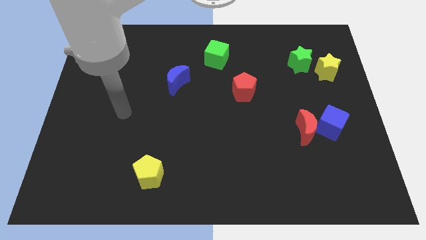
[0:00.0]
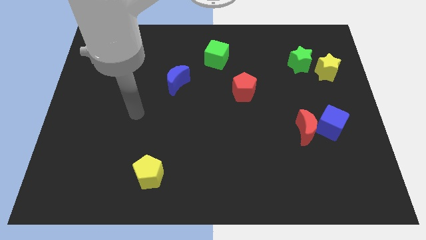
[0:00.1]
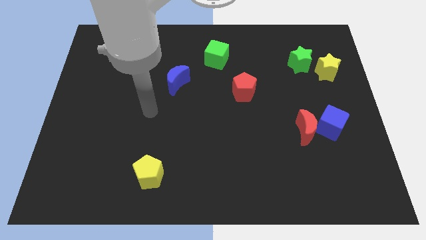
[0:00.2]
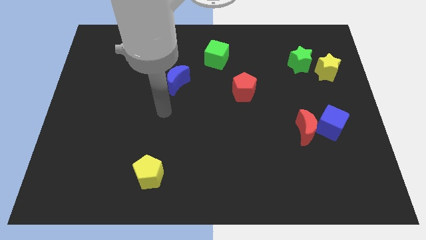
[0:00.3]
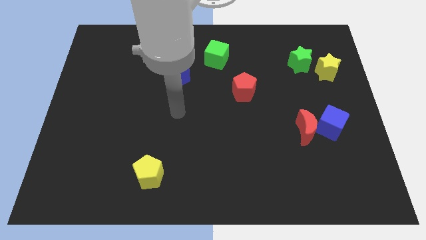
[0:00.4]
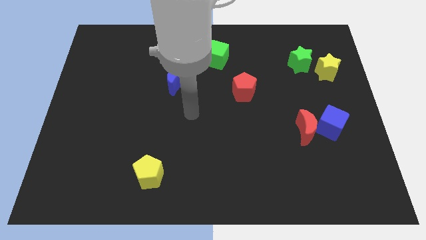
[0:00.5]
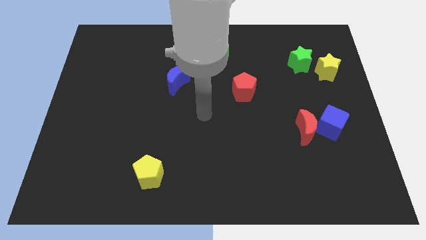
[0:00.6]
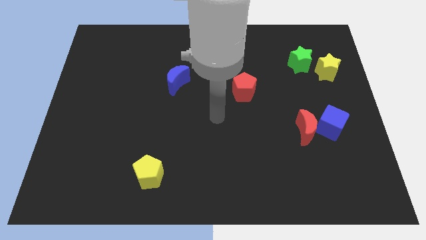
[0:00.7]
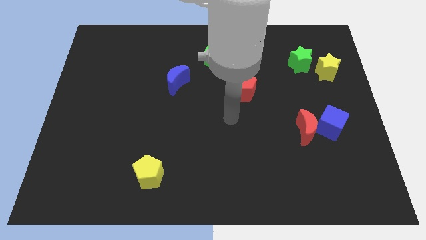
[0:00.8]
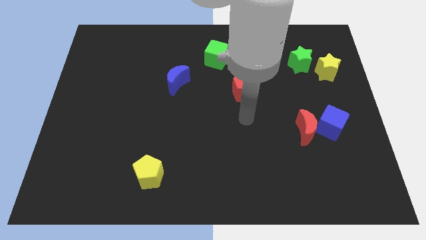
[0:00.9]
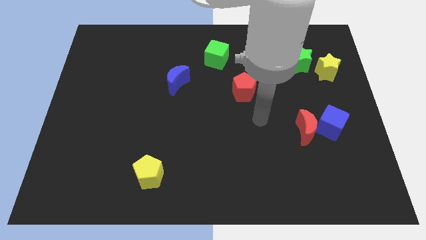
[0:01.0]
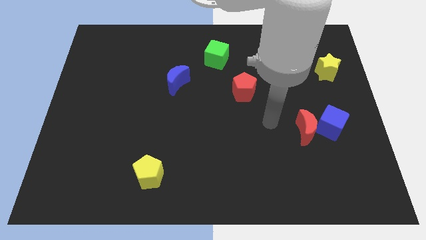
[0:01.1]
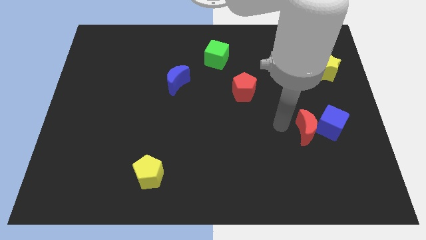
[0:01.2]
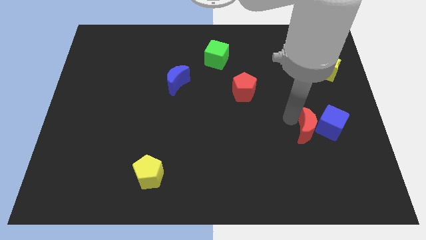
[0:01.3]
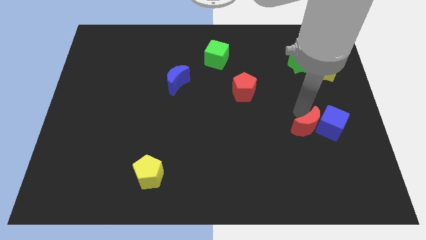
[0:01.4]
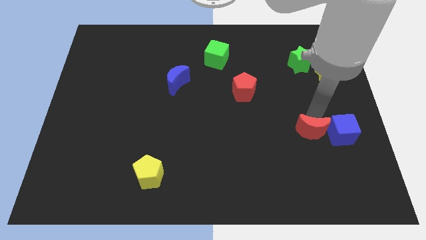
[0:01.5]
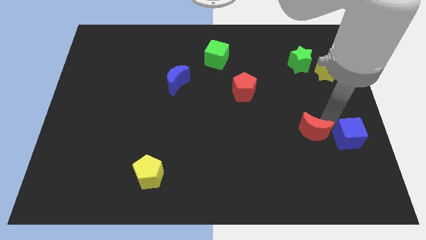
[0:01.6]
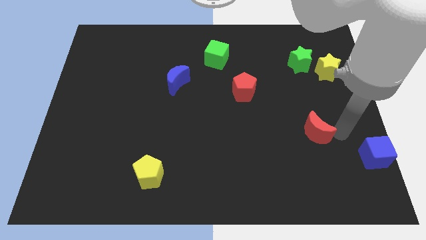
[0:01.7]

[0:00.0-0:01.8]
move the red moon away from the blue cube

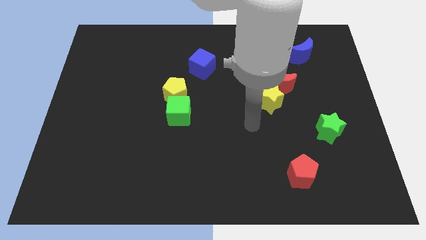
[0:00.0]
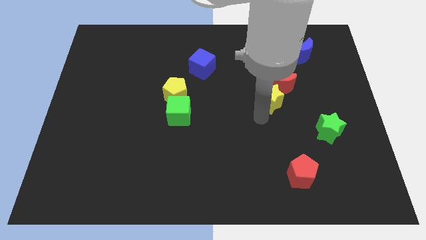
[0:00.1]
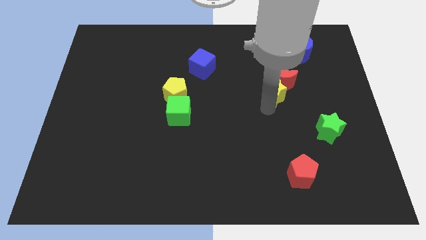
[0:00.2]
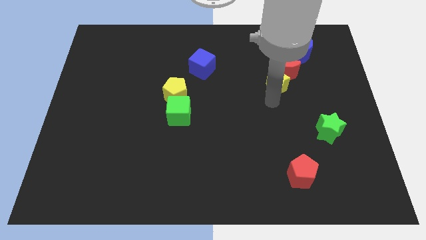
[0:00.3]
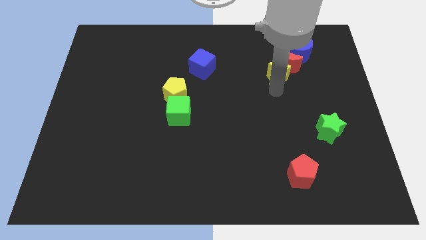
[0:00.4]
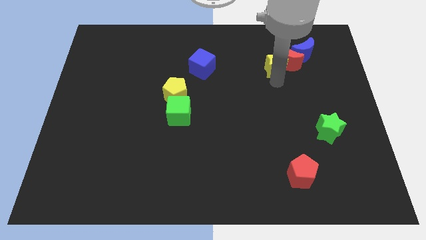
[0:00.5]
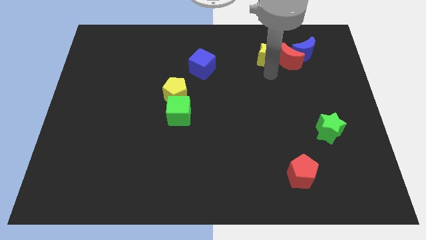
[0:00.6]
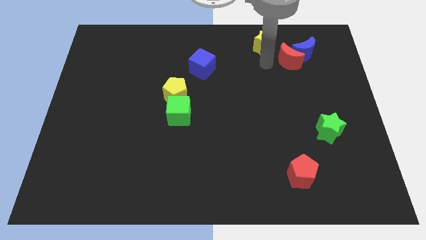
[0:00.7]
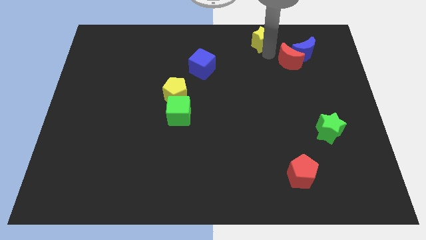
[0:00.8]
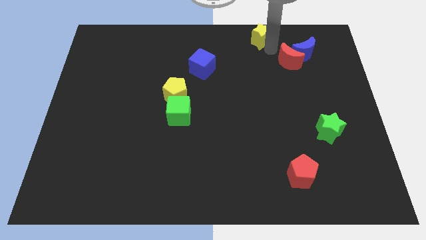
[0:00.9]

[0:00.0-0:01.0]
move the red moon away from the yellow star

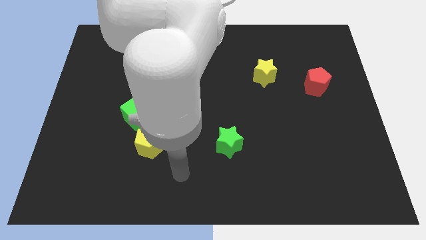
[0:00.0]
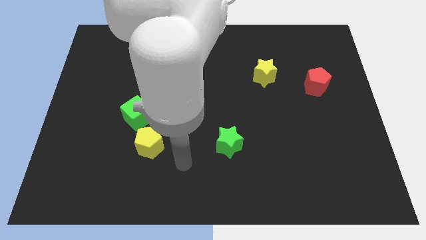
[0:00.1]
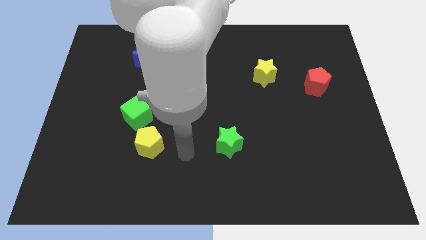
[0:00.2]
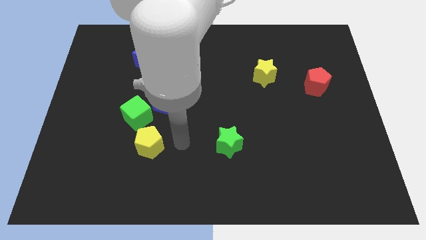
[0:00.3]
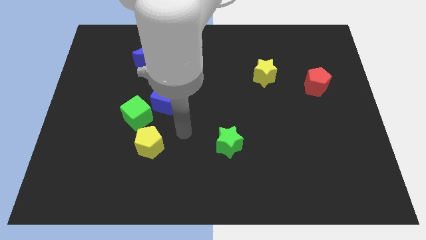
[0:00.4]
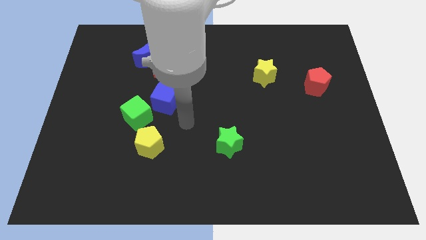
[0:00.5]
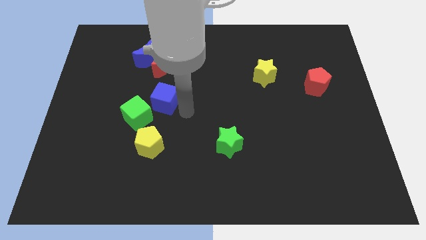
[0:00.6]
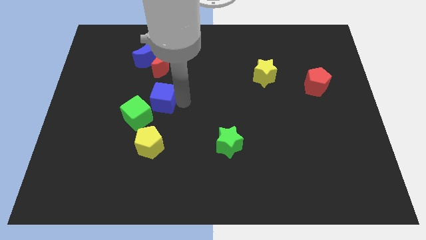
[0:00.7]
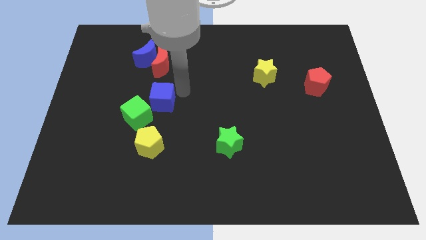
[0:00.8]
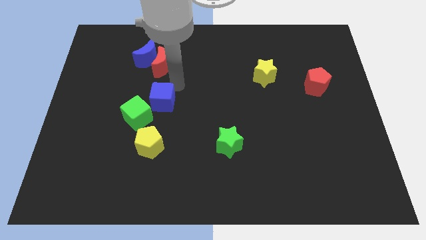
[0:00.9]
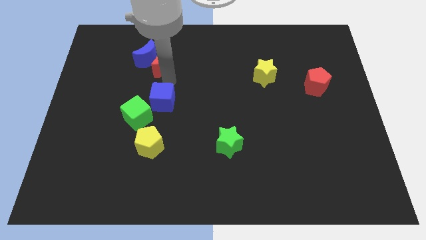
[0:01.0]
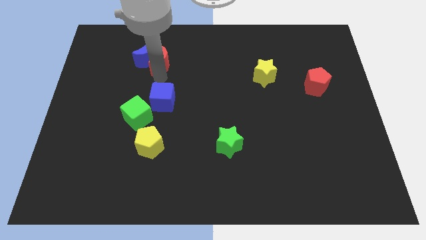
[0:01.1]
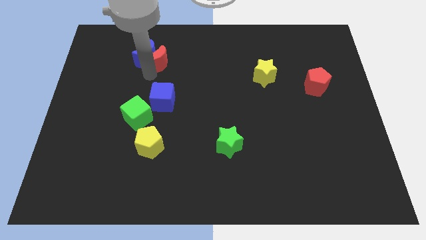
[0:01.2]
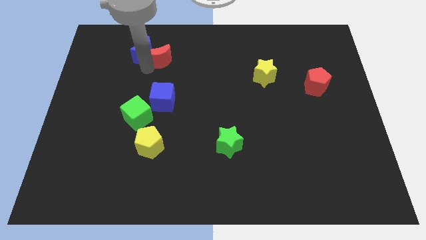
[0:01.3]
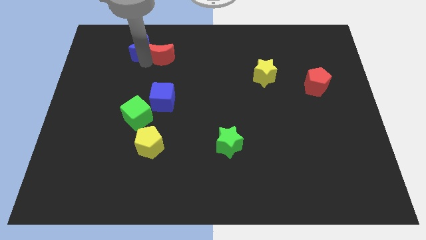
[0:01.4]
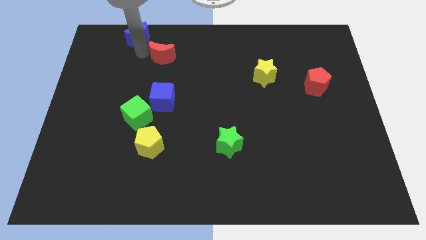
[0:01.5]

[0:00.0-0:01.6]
pull the red moon apart from the blue moon

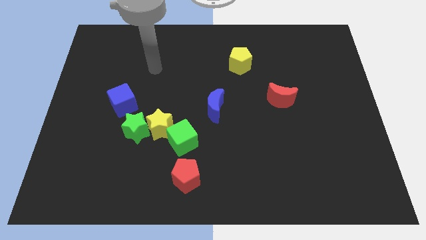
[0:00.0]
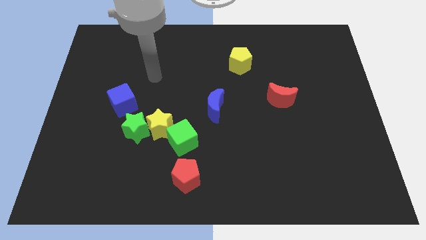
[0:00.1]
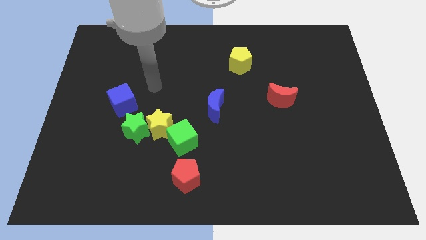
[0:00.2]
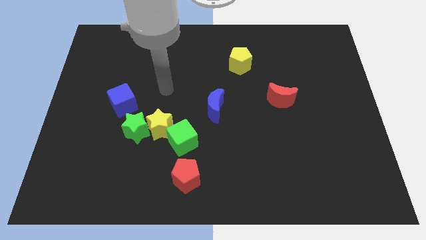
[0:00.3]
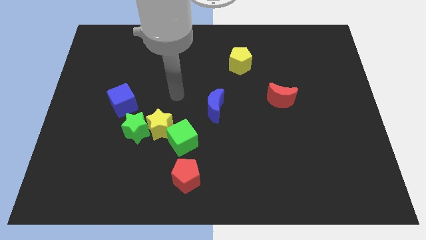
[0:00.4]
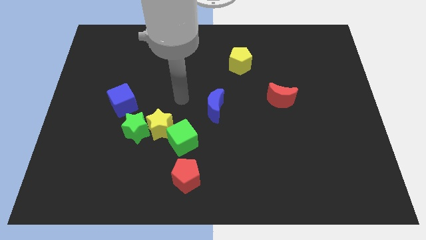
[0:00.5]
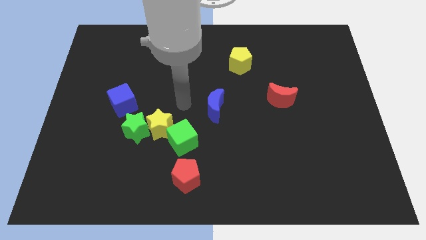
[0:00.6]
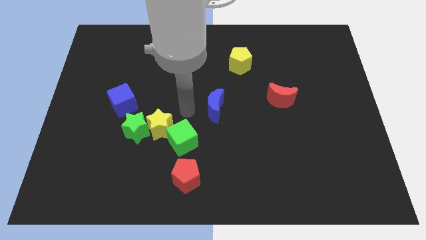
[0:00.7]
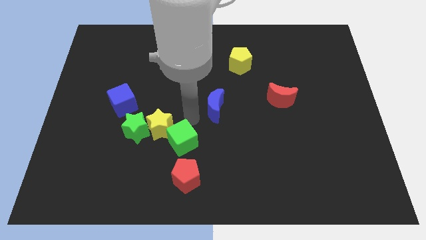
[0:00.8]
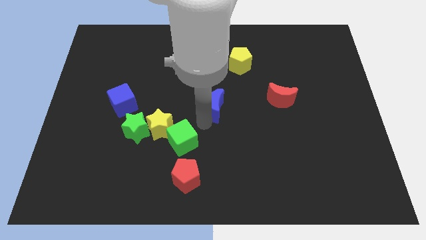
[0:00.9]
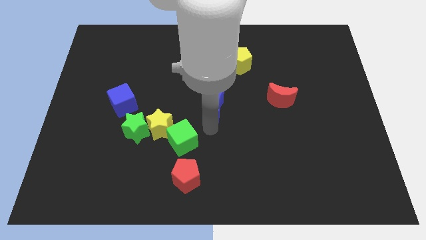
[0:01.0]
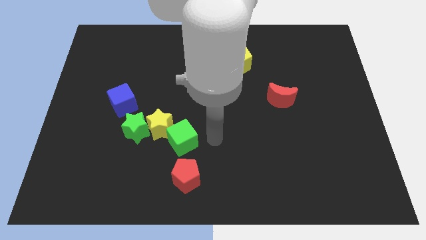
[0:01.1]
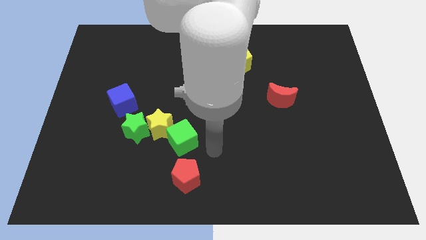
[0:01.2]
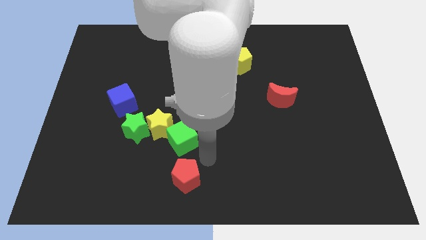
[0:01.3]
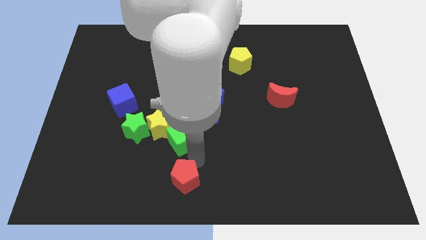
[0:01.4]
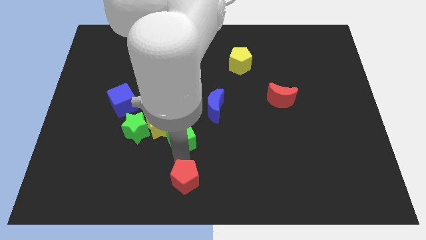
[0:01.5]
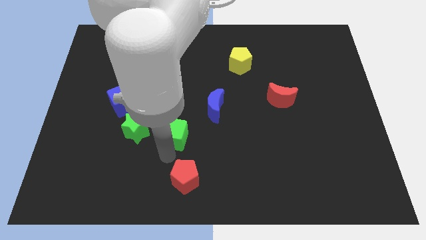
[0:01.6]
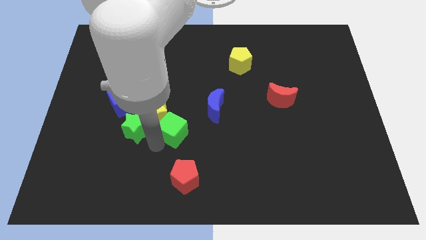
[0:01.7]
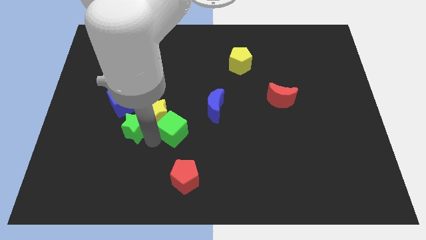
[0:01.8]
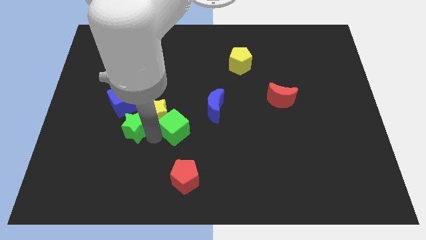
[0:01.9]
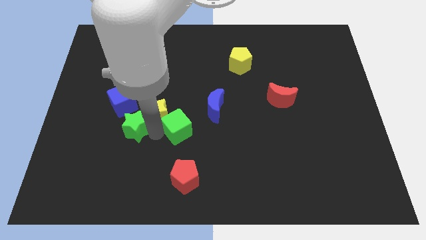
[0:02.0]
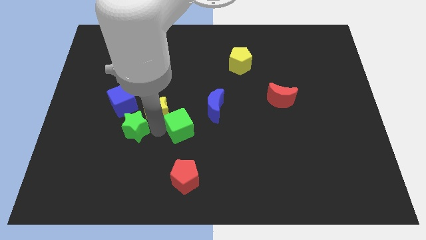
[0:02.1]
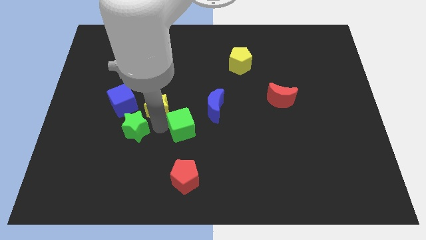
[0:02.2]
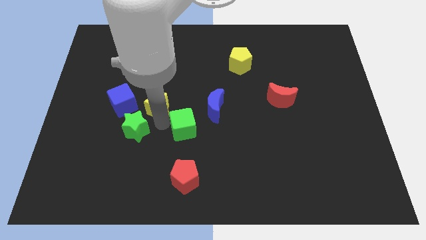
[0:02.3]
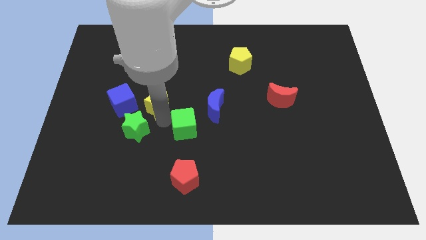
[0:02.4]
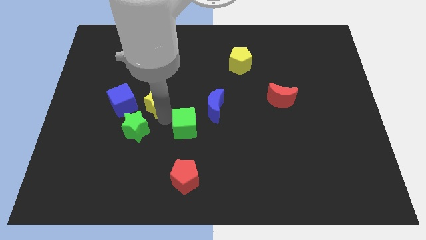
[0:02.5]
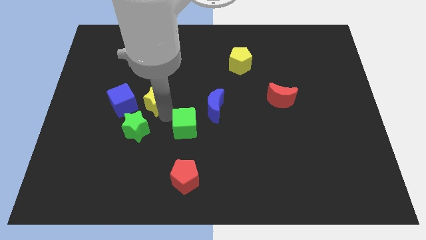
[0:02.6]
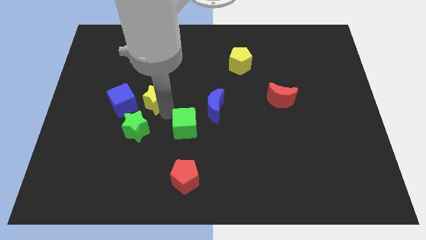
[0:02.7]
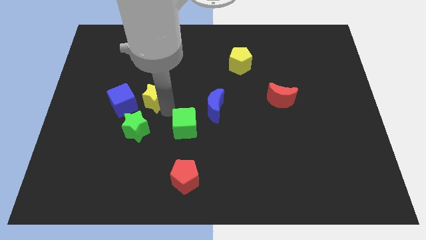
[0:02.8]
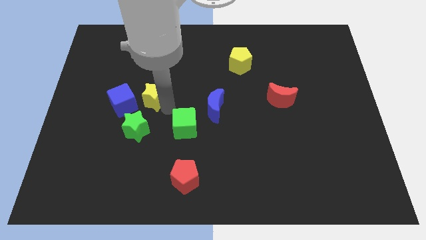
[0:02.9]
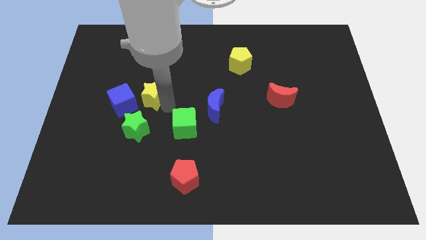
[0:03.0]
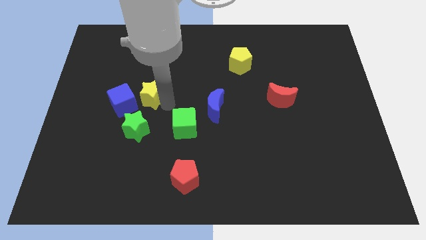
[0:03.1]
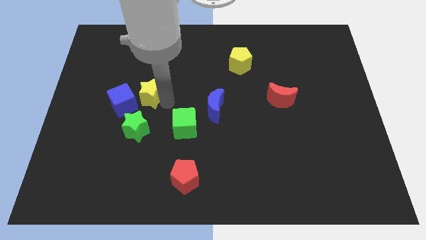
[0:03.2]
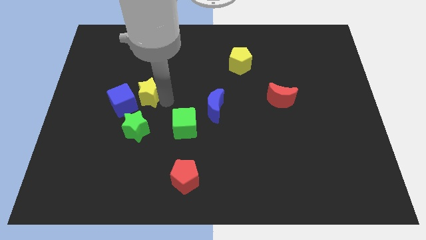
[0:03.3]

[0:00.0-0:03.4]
move the yellow star away from the green star and green cube

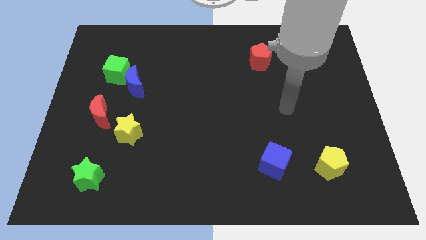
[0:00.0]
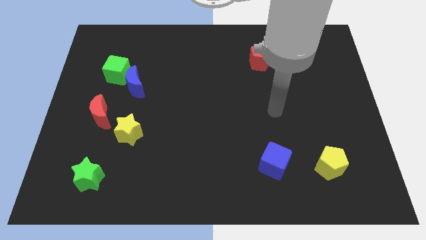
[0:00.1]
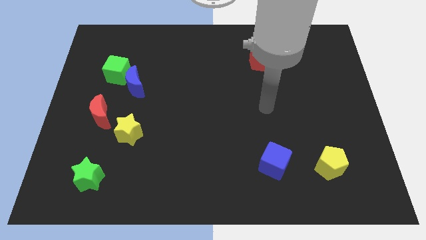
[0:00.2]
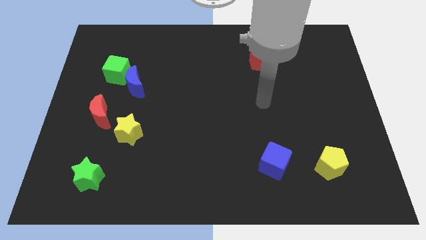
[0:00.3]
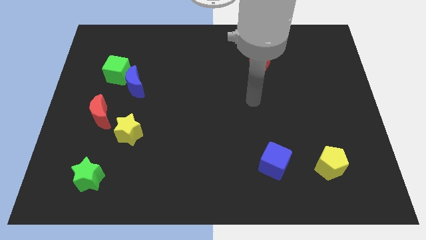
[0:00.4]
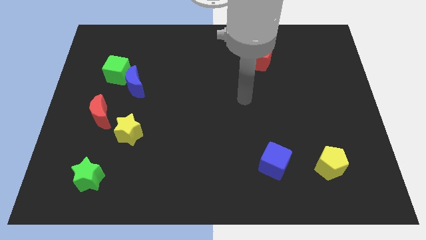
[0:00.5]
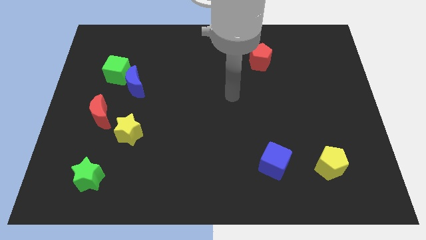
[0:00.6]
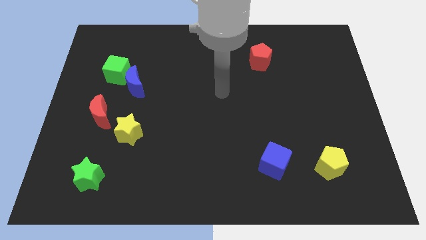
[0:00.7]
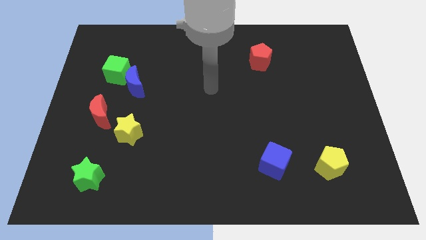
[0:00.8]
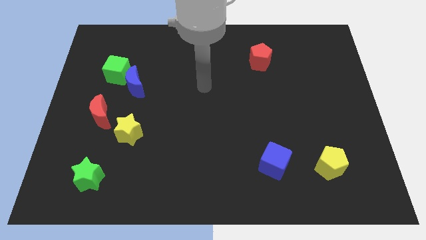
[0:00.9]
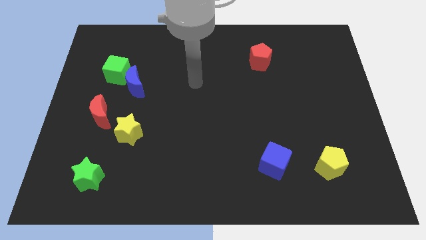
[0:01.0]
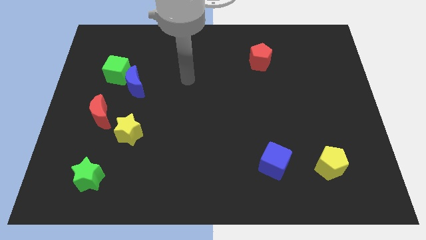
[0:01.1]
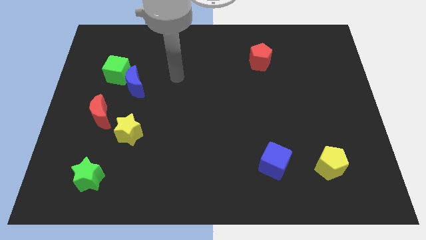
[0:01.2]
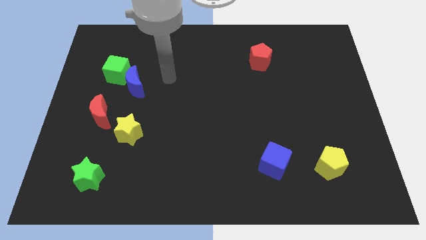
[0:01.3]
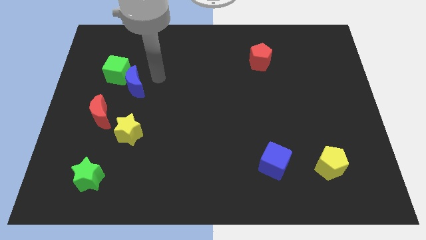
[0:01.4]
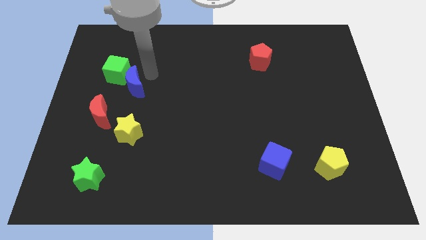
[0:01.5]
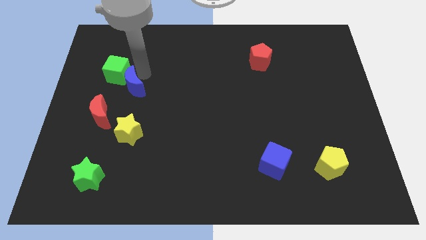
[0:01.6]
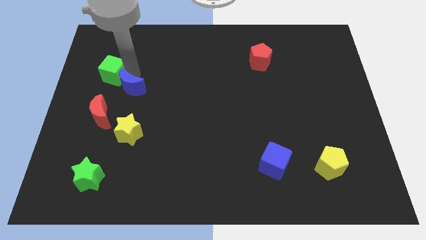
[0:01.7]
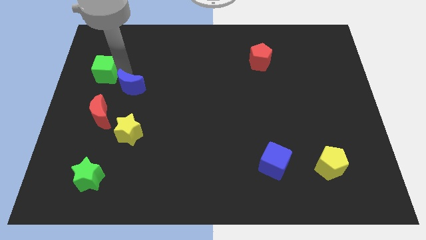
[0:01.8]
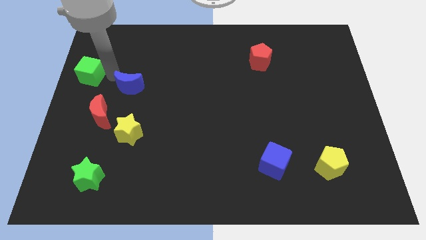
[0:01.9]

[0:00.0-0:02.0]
pull the blue moon apart from the green cube
